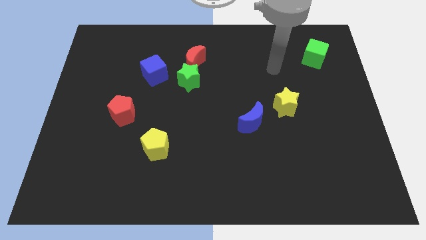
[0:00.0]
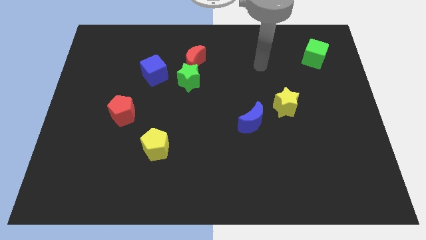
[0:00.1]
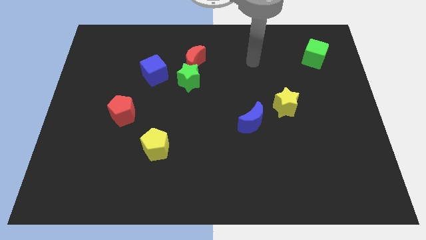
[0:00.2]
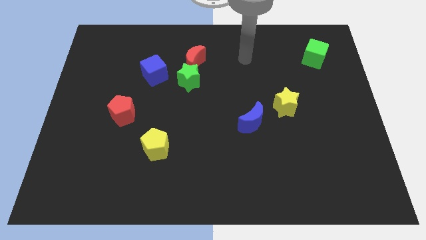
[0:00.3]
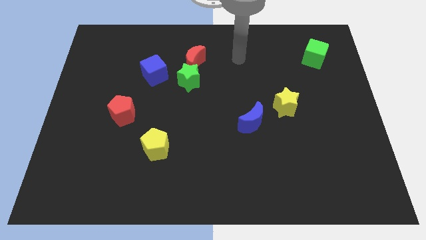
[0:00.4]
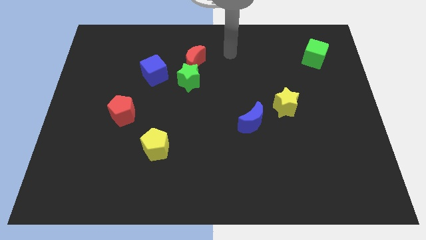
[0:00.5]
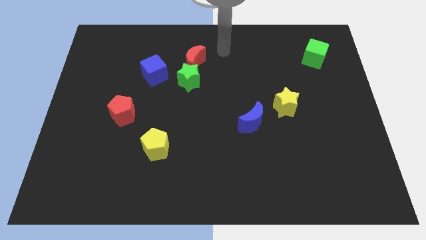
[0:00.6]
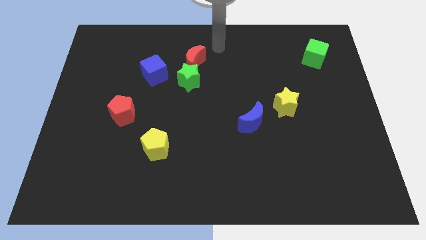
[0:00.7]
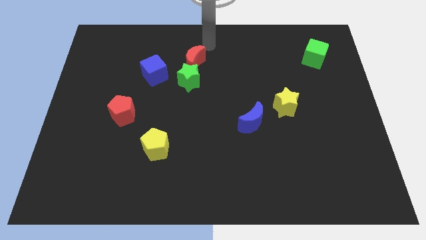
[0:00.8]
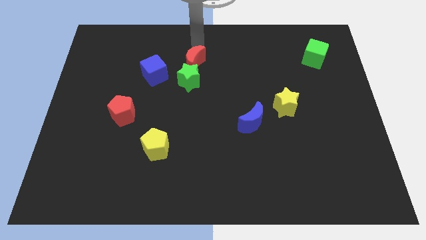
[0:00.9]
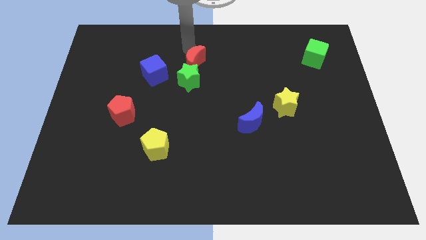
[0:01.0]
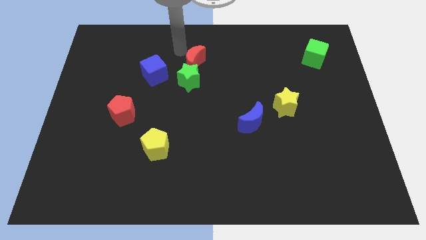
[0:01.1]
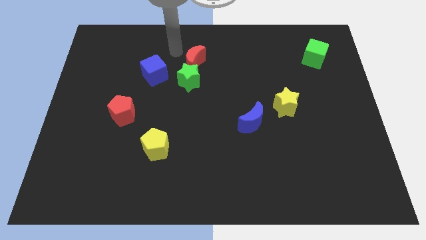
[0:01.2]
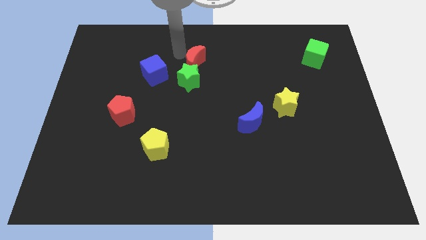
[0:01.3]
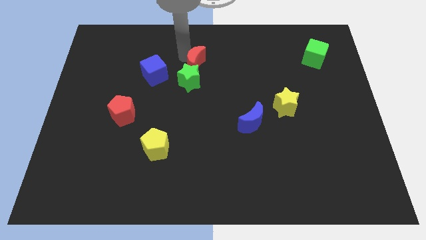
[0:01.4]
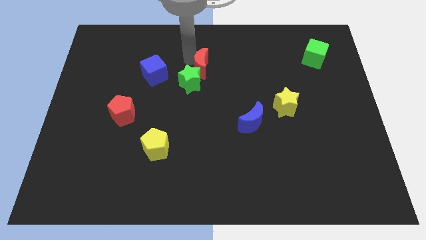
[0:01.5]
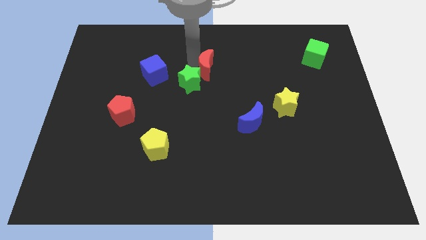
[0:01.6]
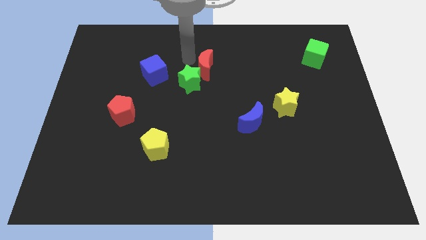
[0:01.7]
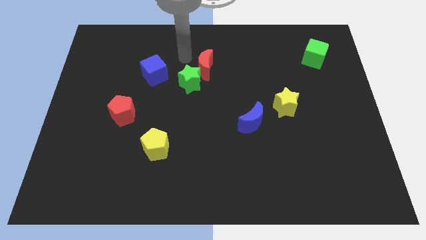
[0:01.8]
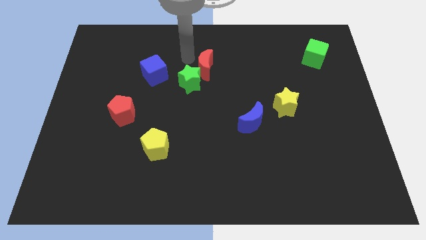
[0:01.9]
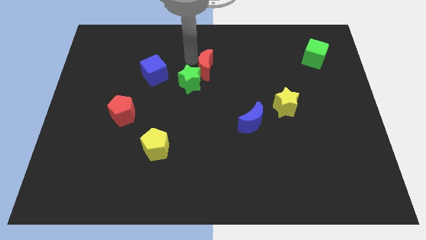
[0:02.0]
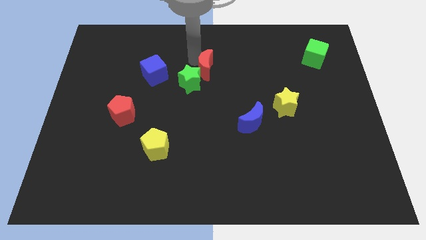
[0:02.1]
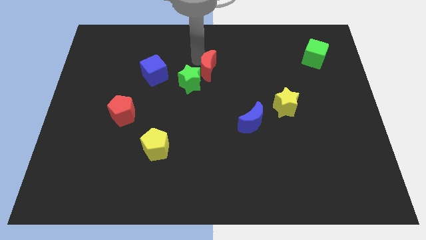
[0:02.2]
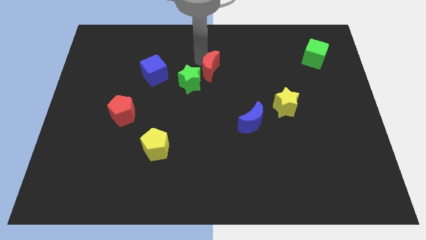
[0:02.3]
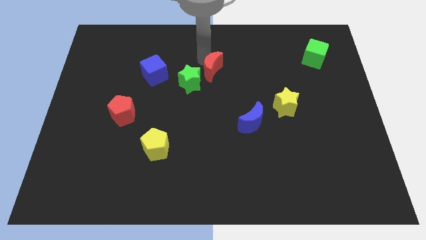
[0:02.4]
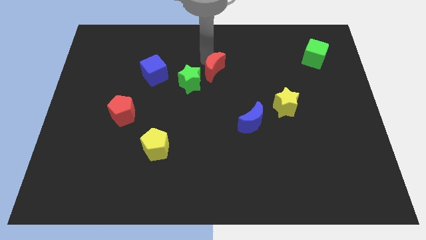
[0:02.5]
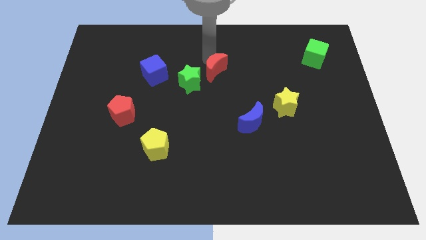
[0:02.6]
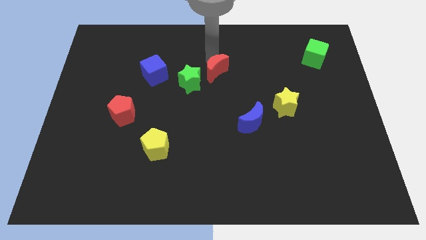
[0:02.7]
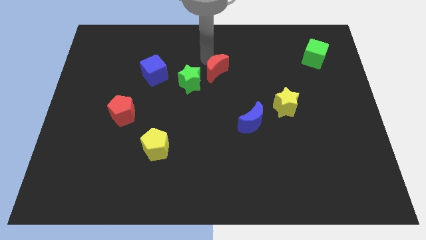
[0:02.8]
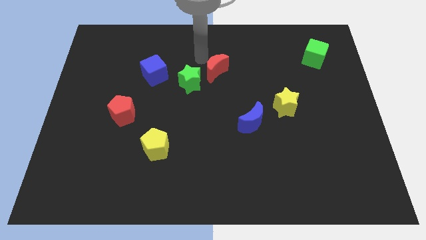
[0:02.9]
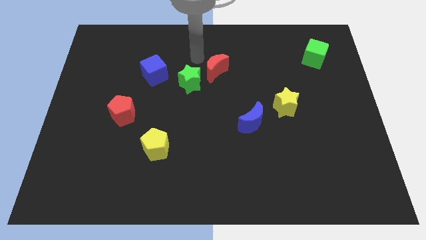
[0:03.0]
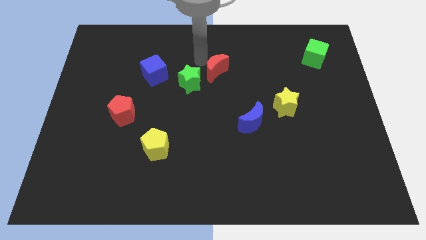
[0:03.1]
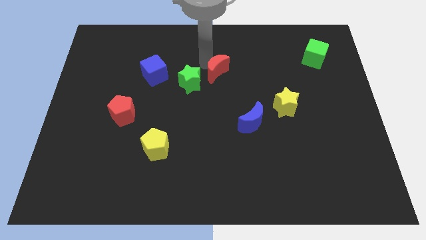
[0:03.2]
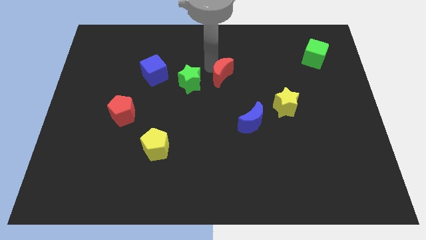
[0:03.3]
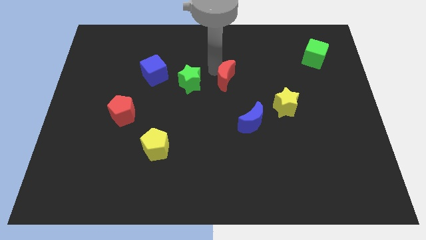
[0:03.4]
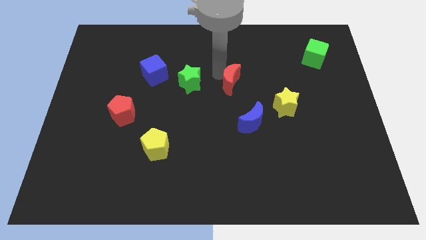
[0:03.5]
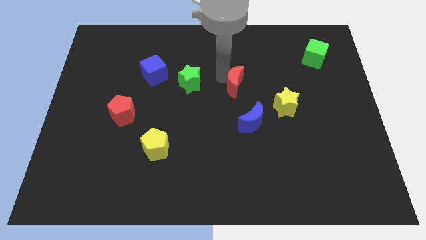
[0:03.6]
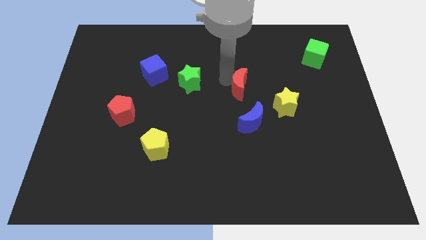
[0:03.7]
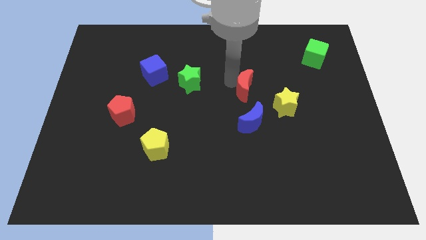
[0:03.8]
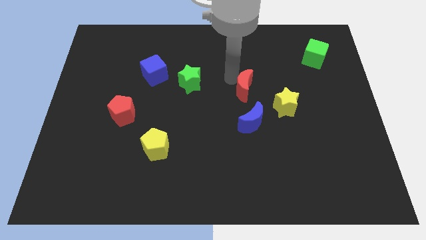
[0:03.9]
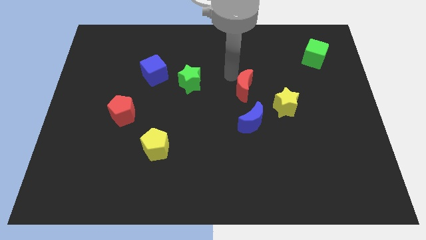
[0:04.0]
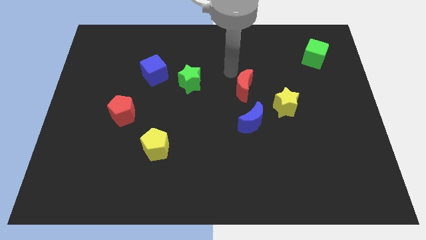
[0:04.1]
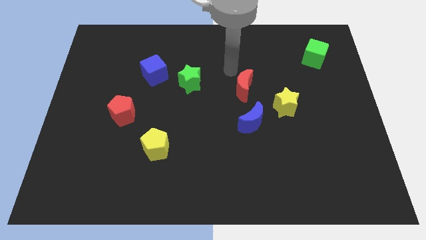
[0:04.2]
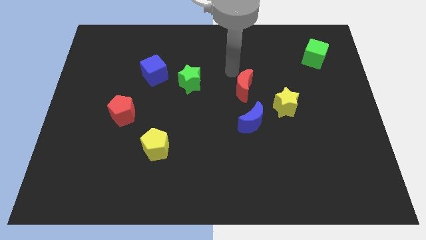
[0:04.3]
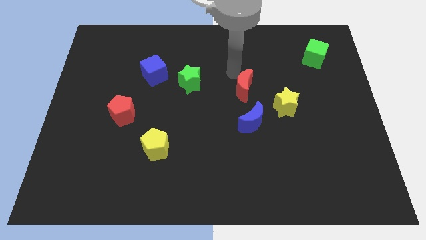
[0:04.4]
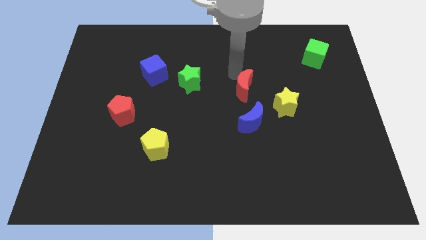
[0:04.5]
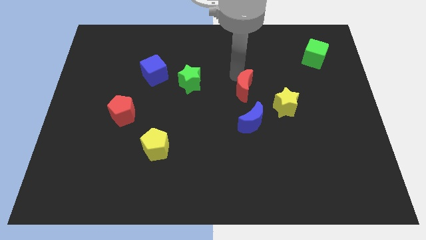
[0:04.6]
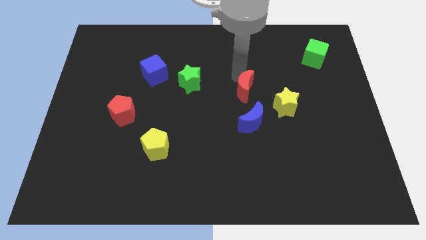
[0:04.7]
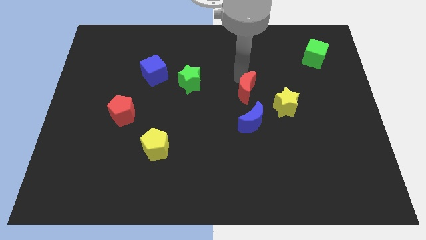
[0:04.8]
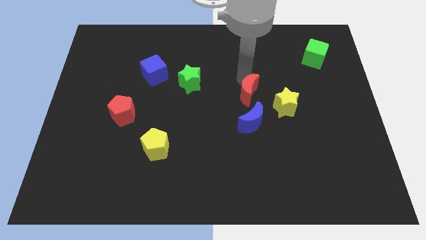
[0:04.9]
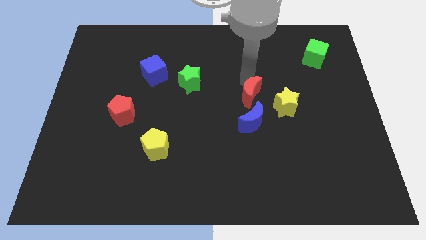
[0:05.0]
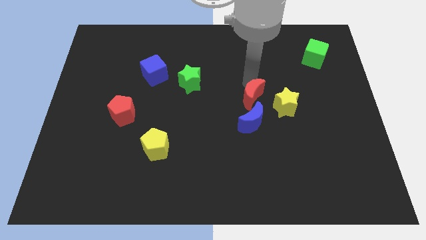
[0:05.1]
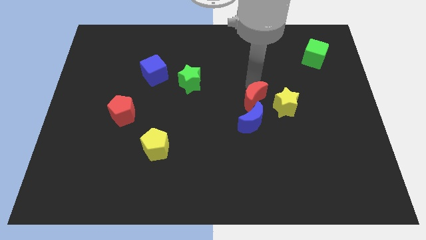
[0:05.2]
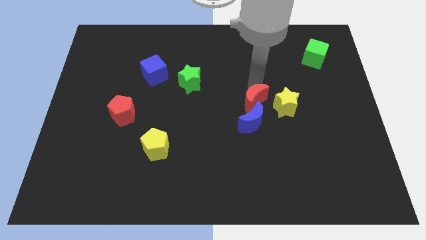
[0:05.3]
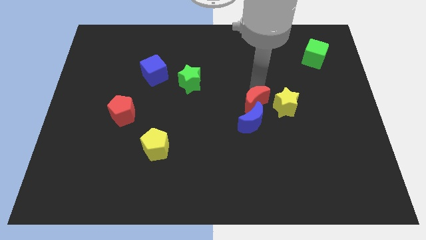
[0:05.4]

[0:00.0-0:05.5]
slide the red moon down and right

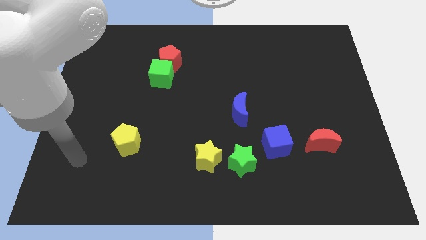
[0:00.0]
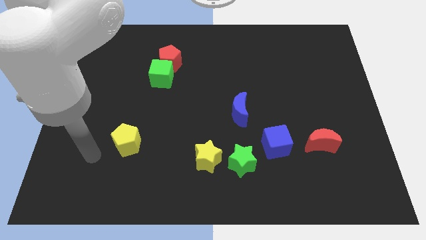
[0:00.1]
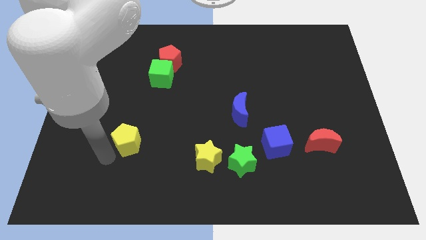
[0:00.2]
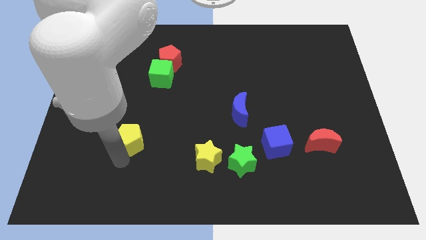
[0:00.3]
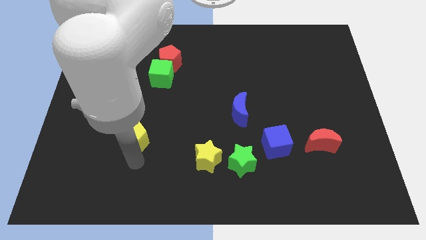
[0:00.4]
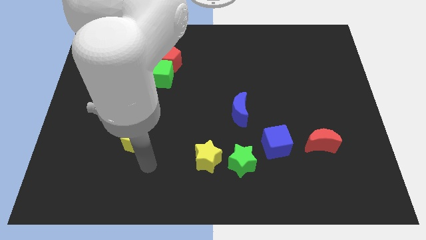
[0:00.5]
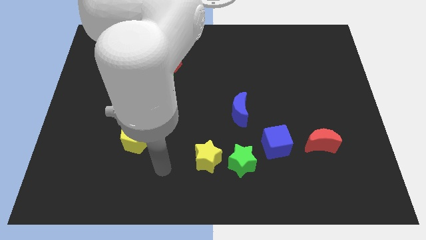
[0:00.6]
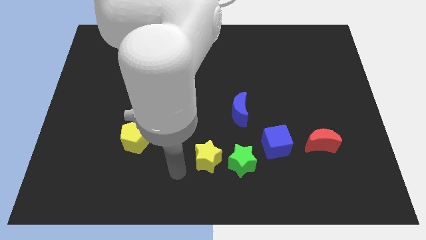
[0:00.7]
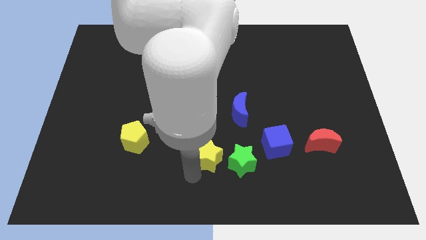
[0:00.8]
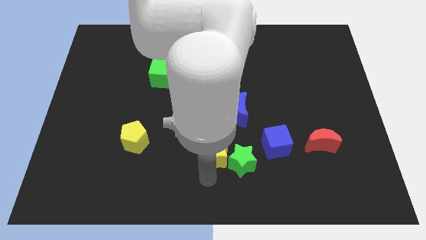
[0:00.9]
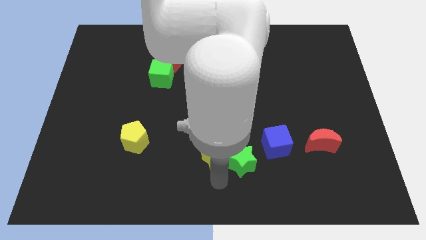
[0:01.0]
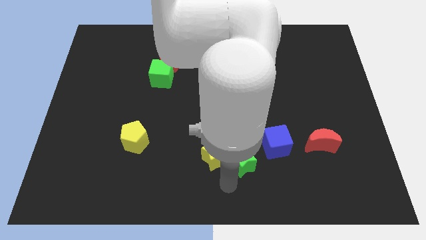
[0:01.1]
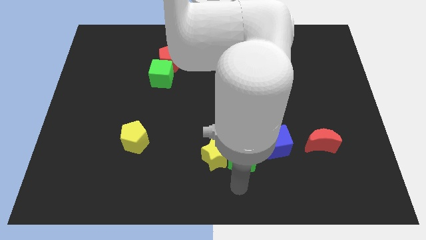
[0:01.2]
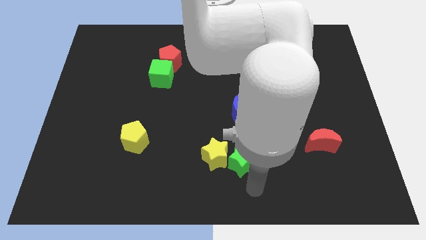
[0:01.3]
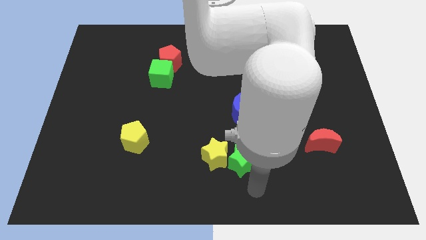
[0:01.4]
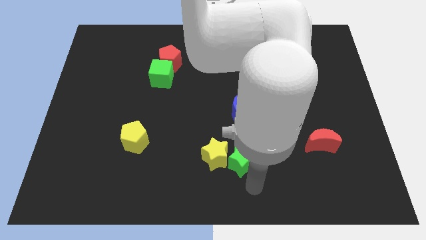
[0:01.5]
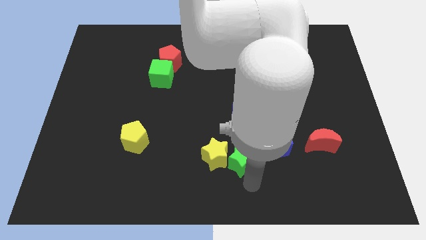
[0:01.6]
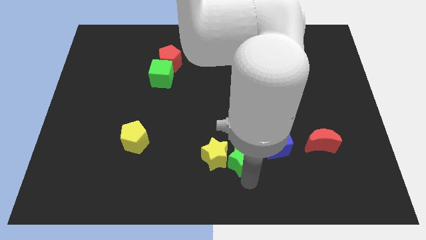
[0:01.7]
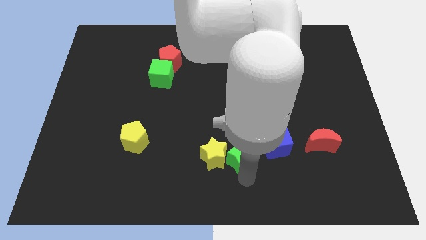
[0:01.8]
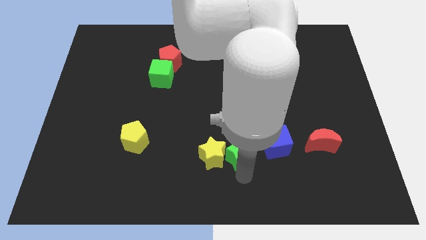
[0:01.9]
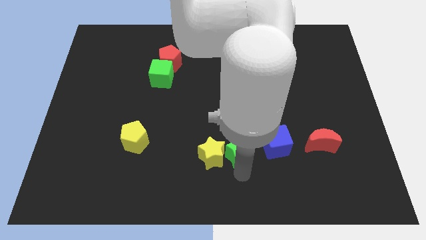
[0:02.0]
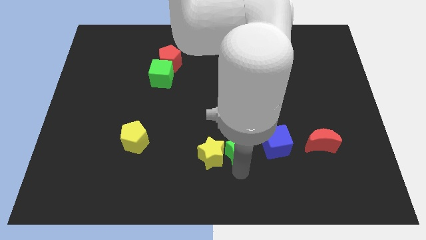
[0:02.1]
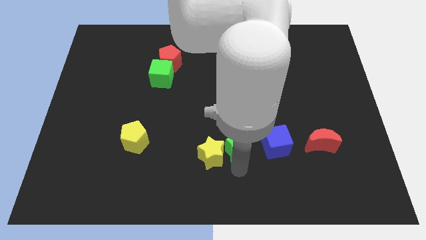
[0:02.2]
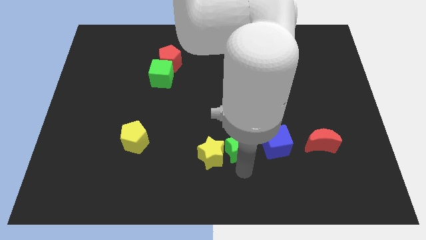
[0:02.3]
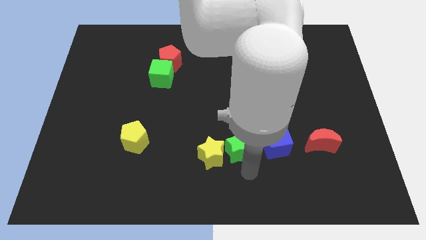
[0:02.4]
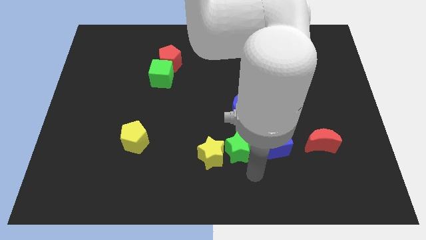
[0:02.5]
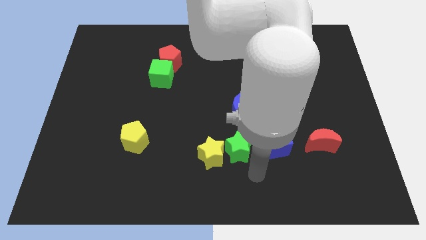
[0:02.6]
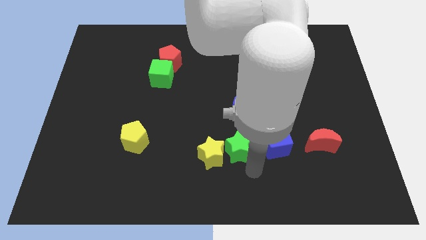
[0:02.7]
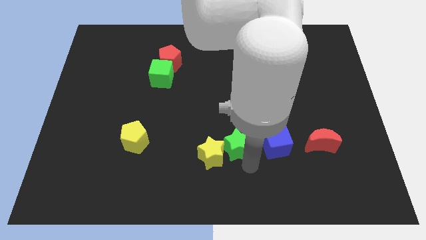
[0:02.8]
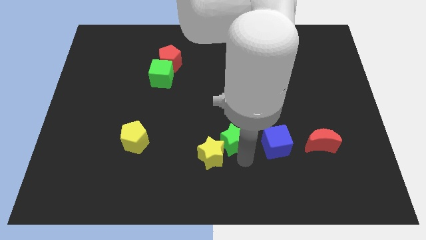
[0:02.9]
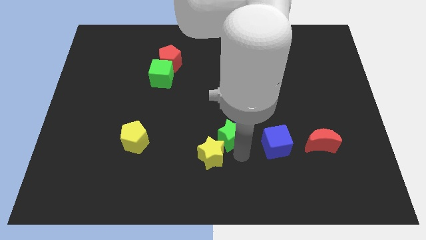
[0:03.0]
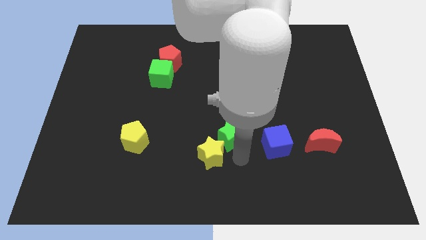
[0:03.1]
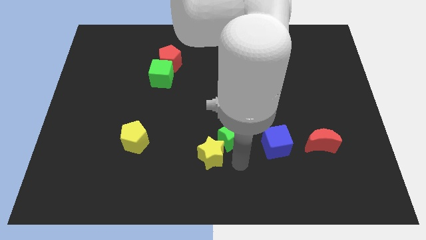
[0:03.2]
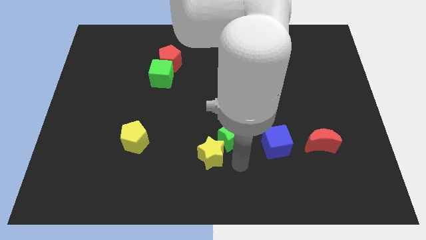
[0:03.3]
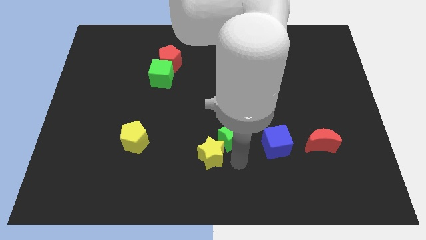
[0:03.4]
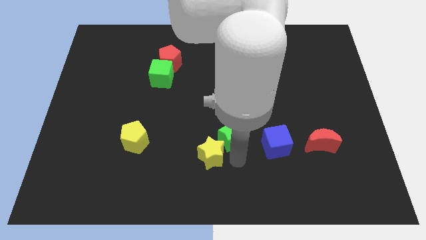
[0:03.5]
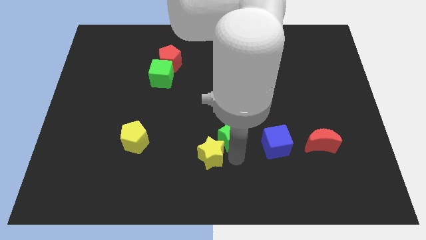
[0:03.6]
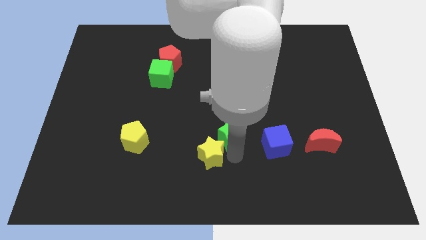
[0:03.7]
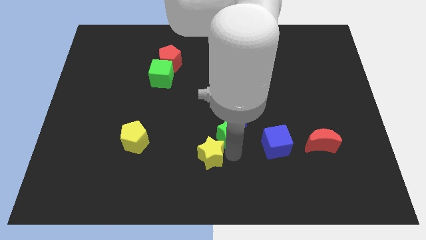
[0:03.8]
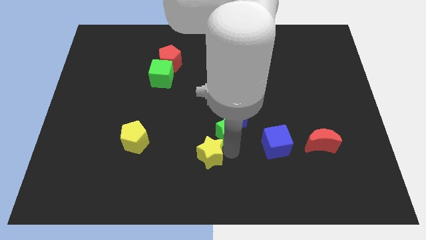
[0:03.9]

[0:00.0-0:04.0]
slide the green star up a little
